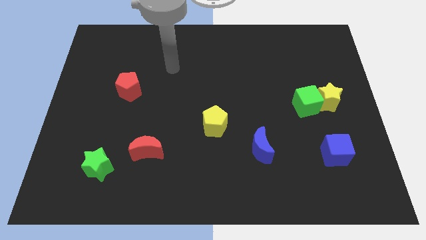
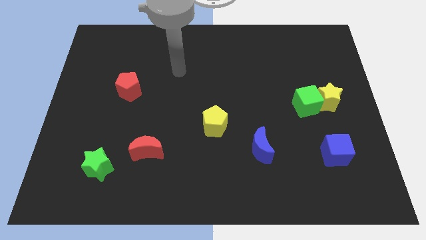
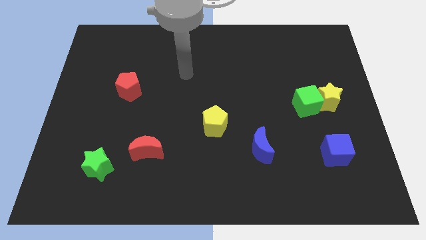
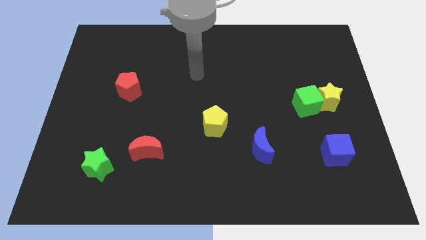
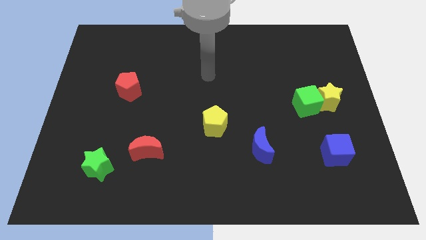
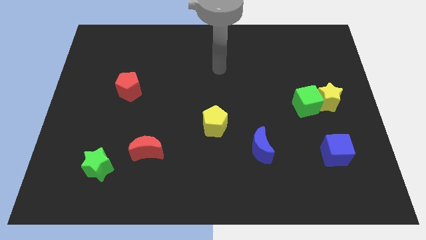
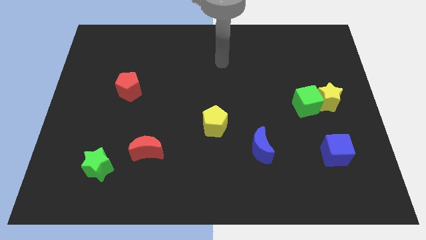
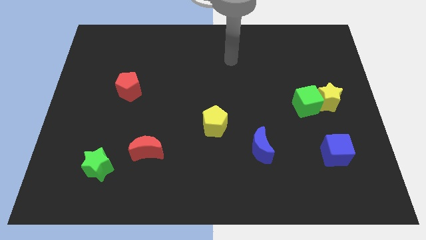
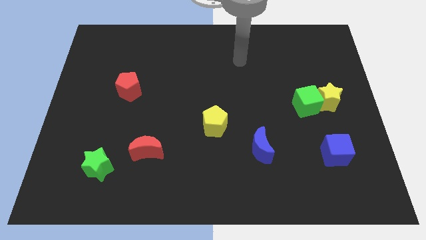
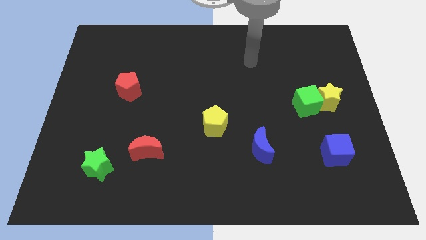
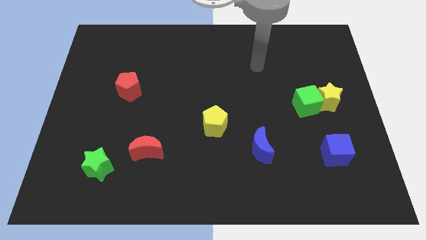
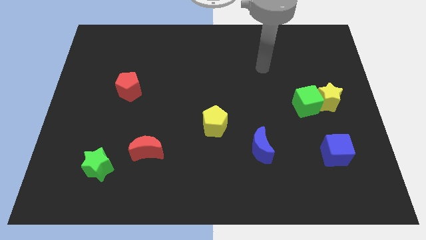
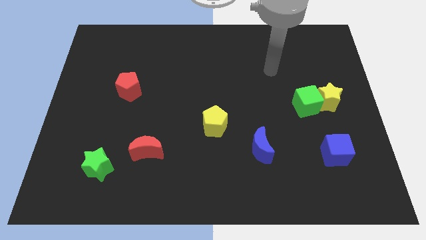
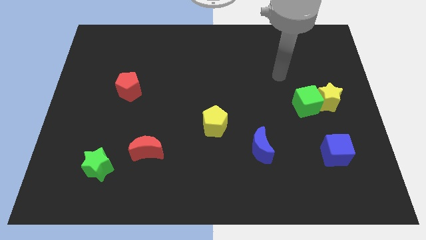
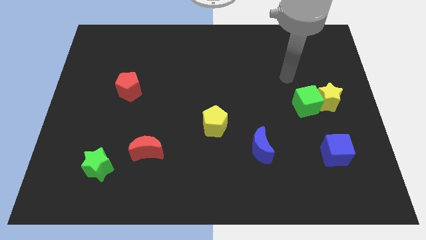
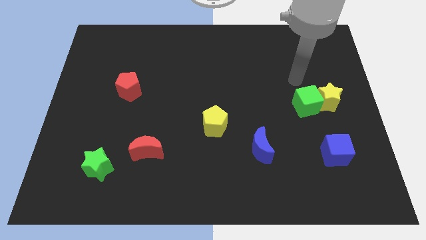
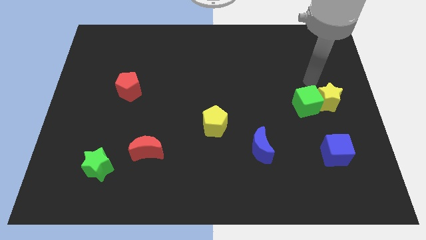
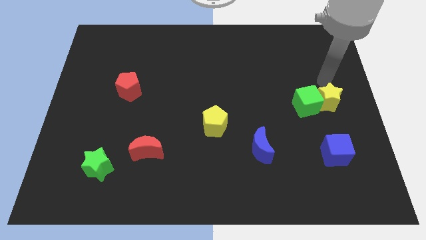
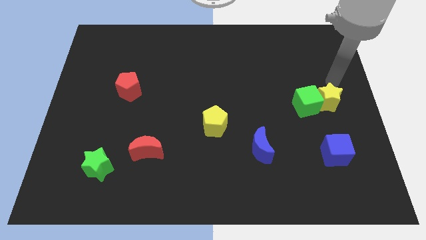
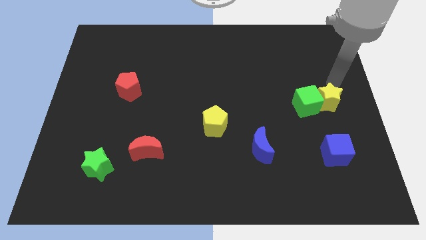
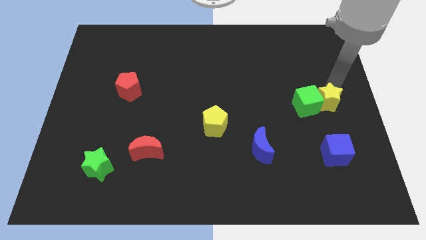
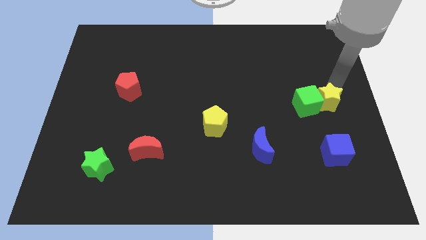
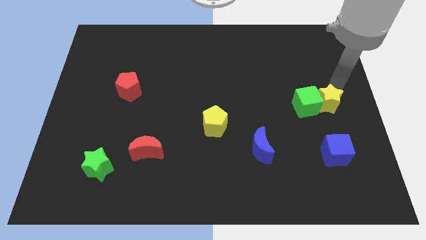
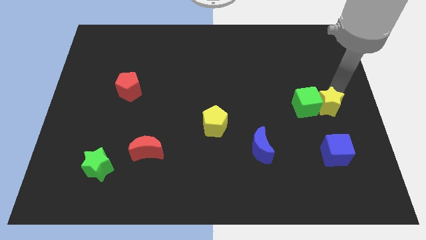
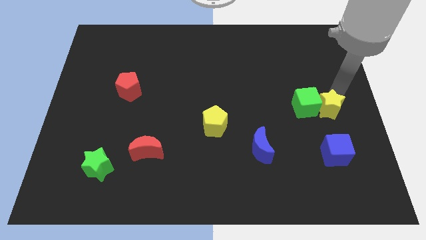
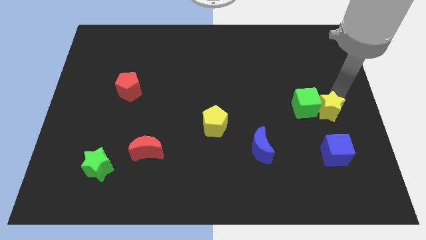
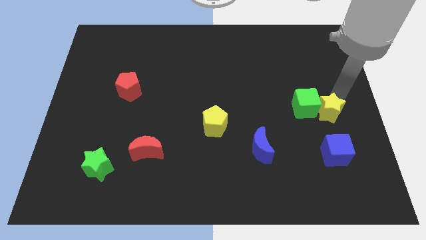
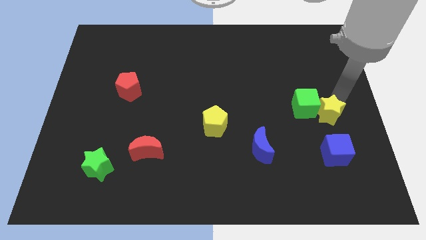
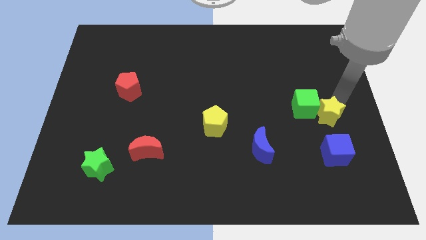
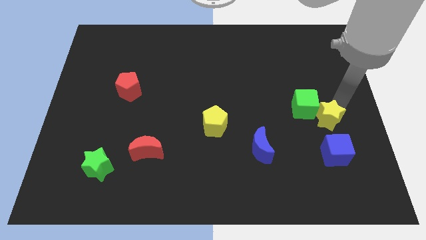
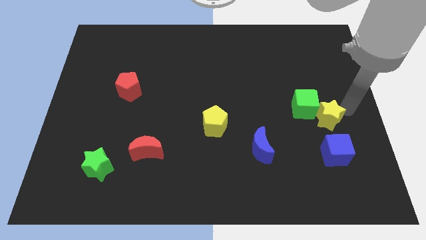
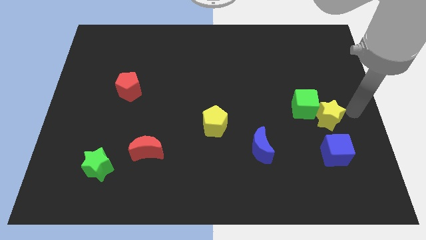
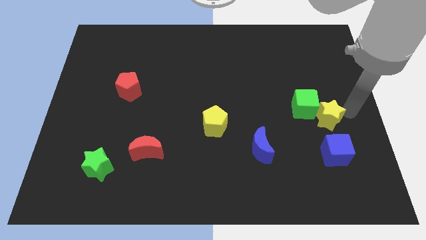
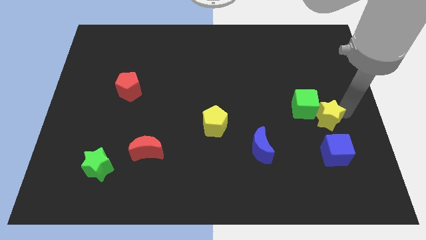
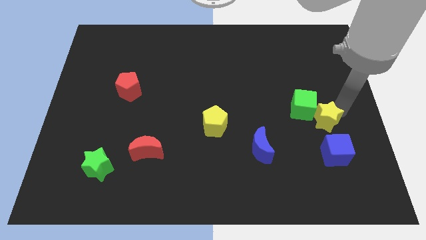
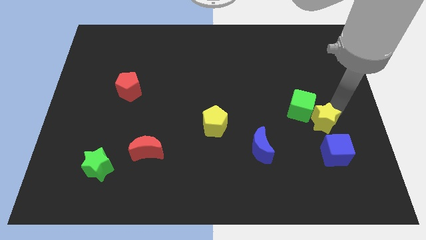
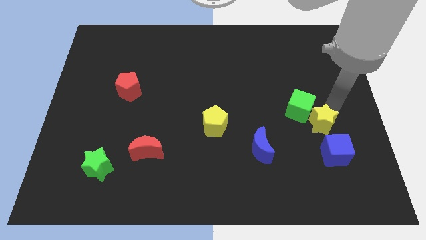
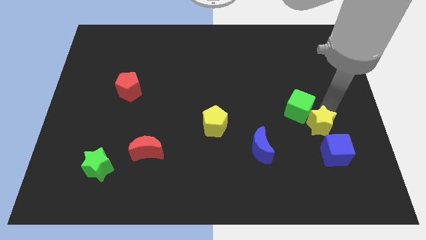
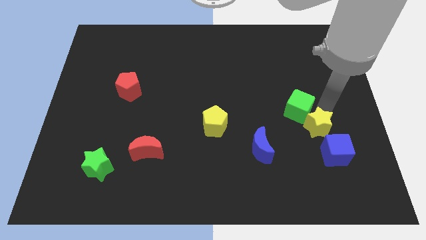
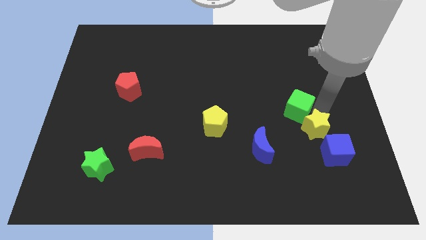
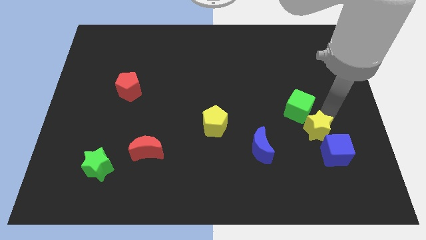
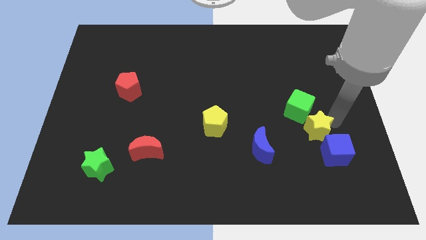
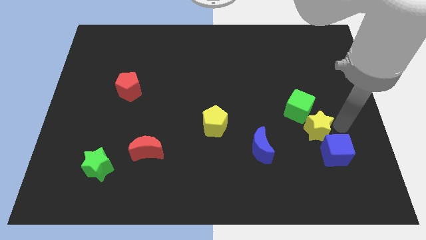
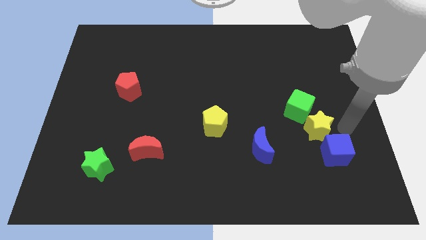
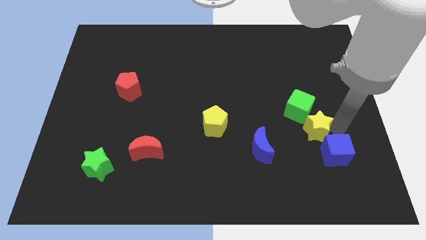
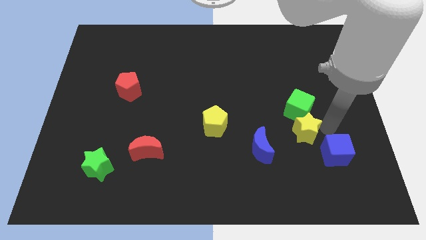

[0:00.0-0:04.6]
push the yellow star diagonally down and to the left of the green cube

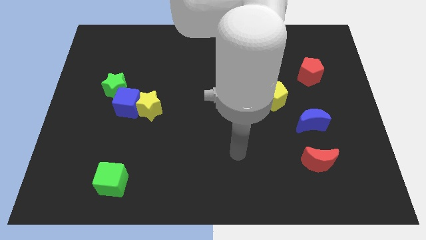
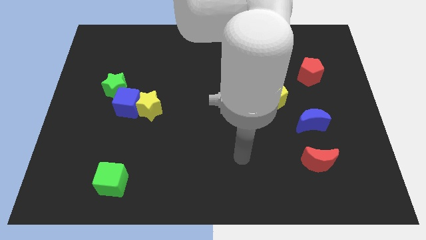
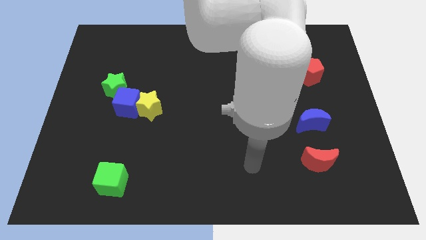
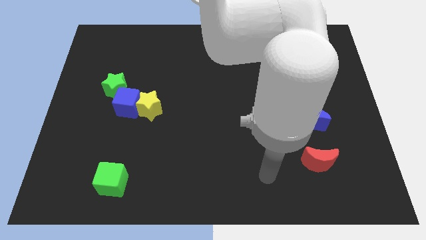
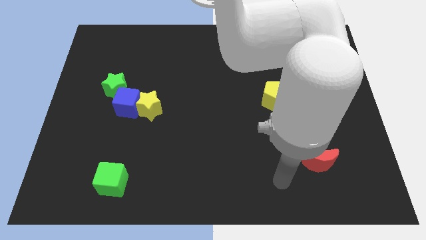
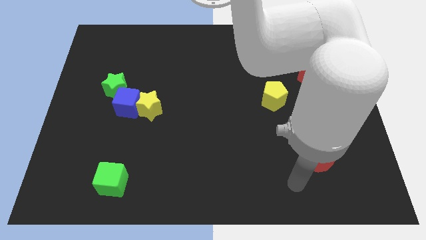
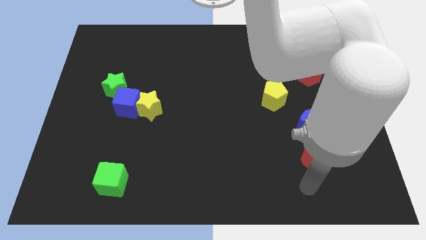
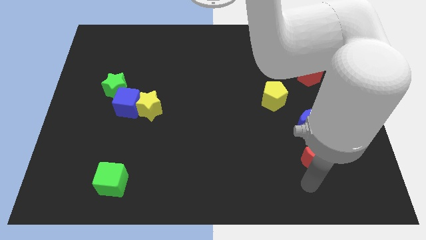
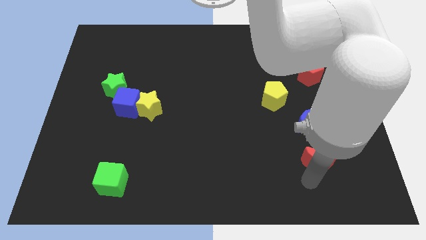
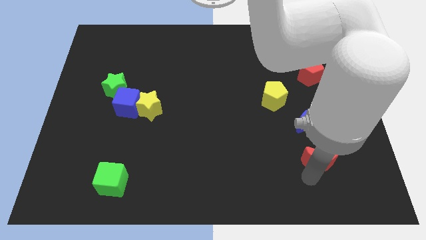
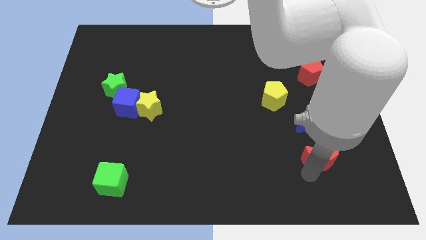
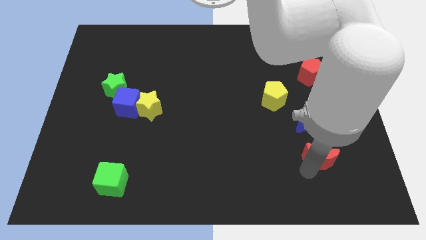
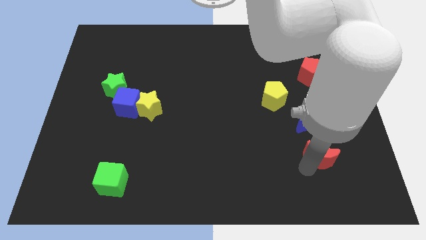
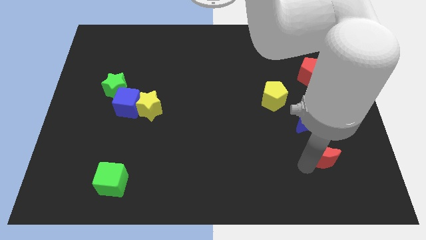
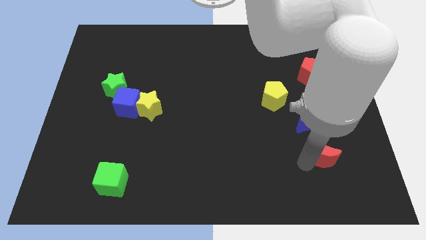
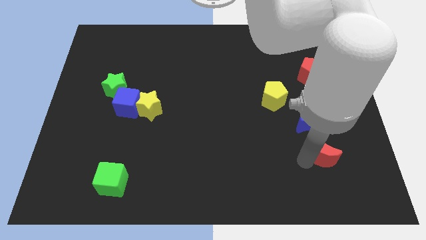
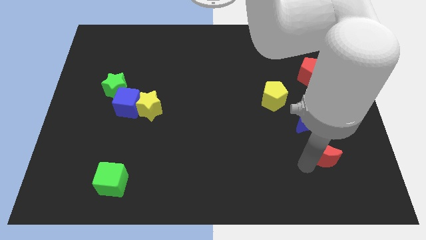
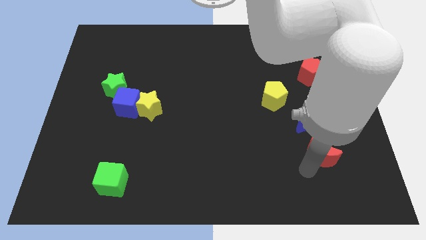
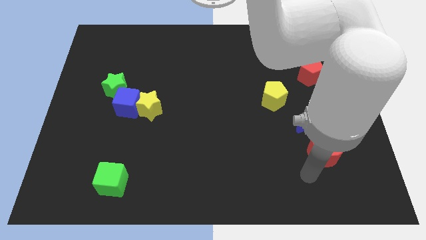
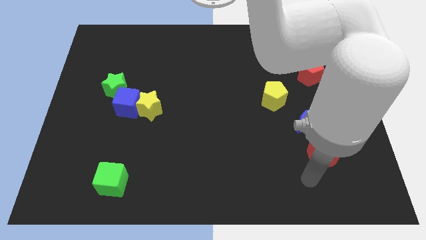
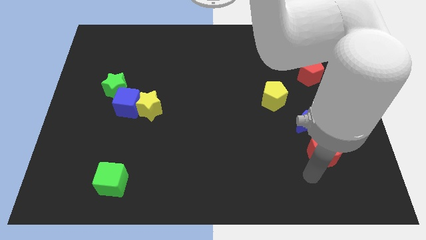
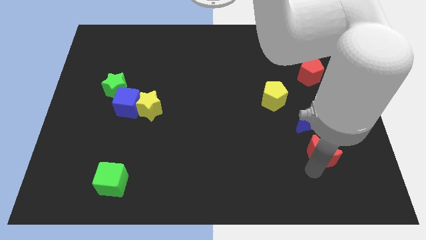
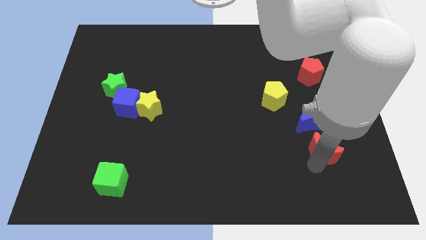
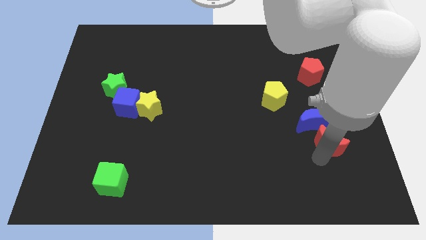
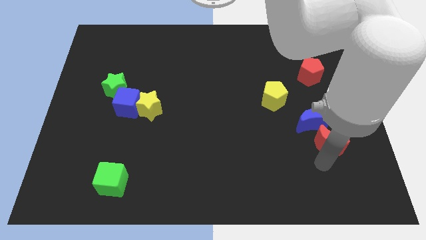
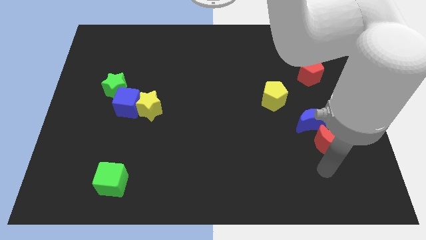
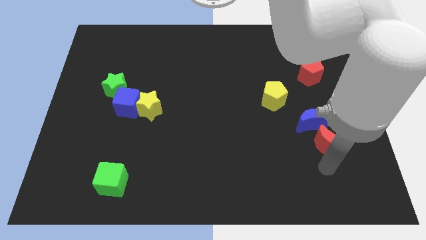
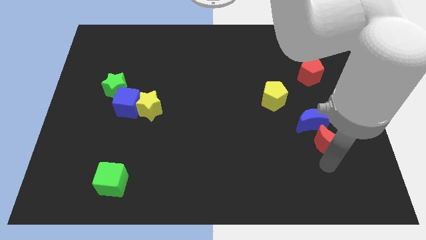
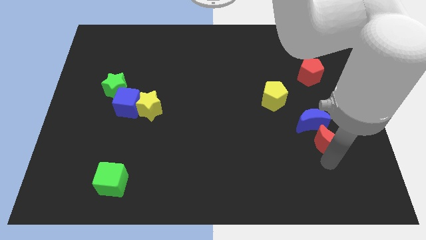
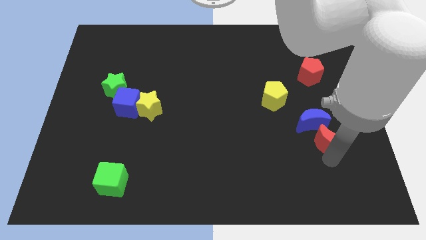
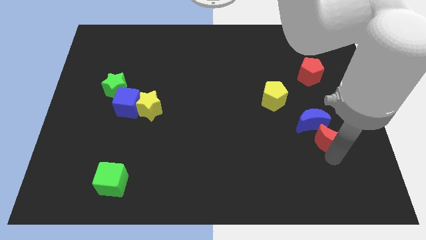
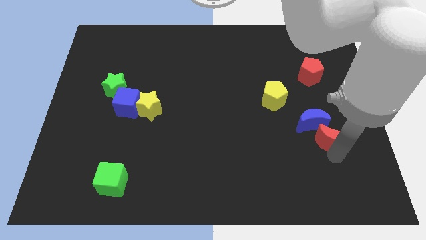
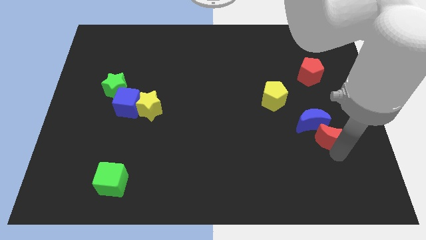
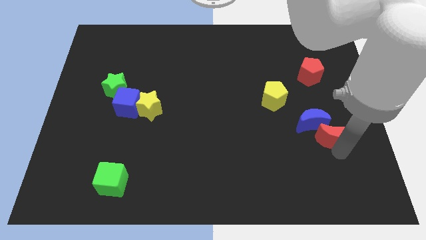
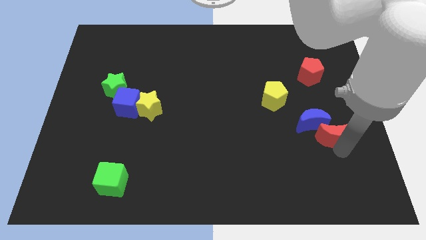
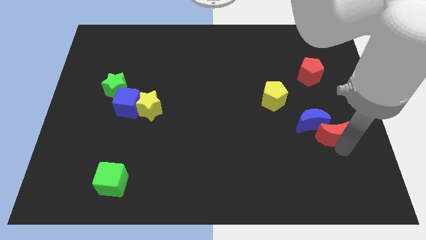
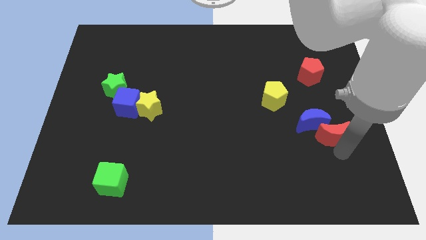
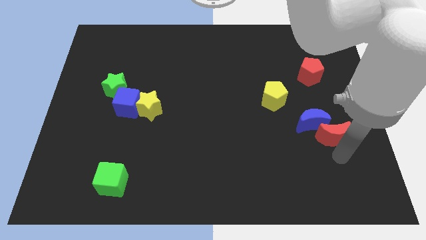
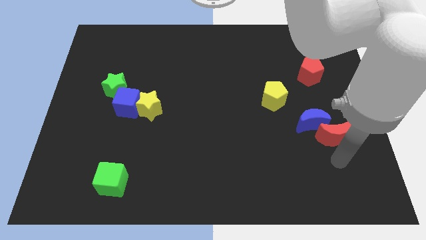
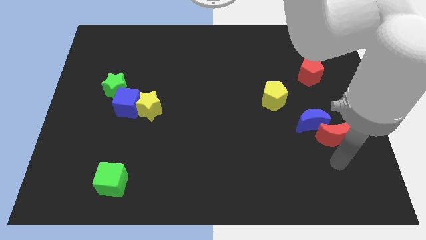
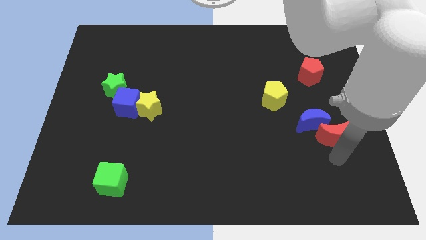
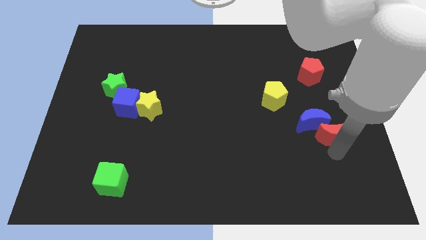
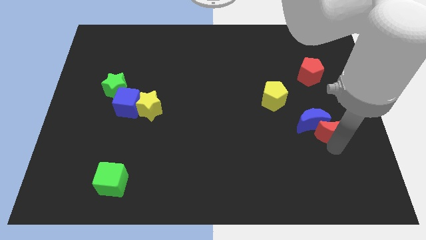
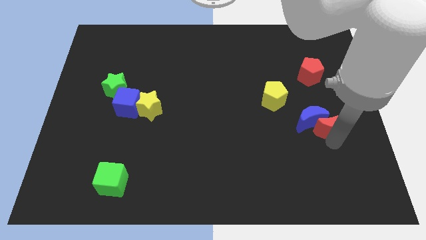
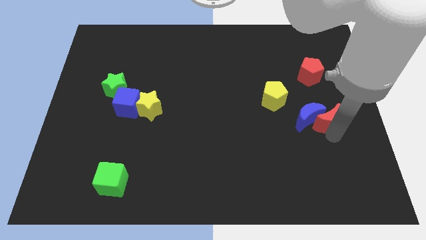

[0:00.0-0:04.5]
put the red moon to the bottom side of the red pentagon
